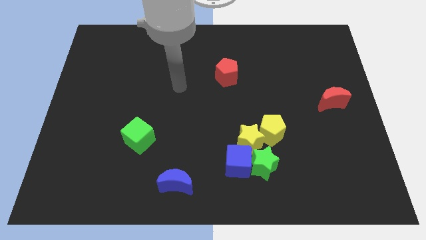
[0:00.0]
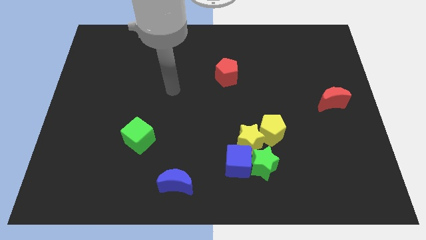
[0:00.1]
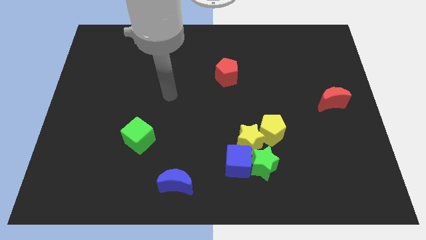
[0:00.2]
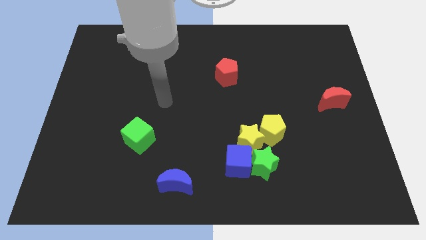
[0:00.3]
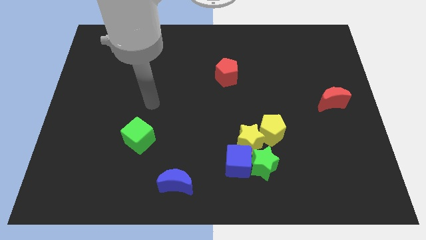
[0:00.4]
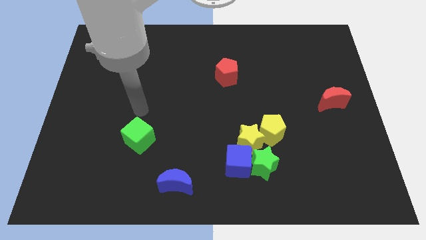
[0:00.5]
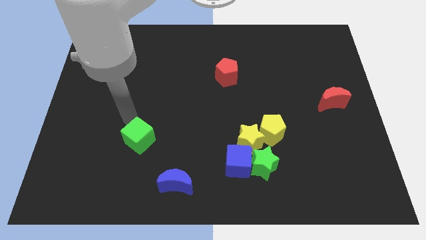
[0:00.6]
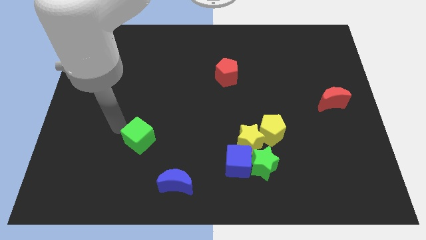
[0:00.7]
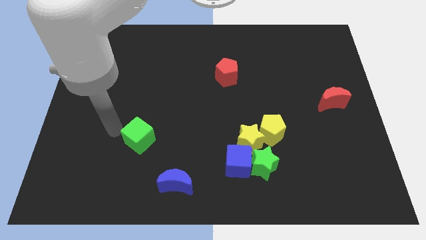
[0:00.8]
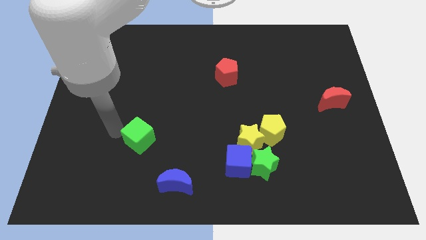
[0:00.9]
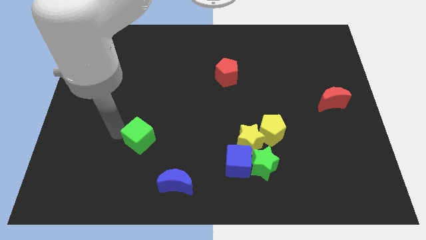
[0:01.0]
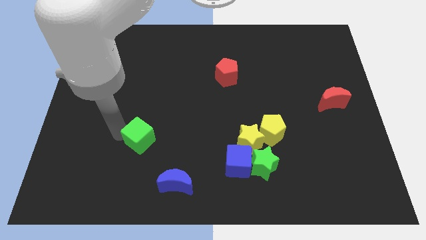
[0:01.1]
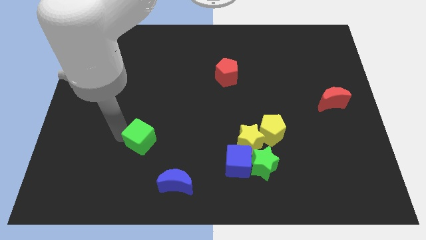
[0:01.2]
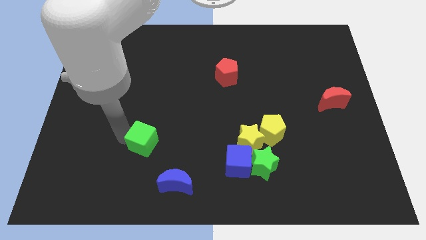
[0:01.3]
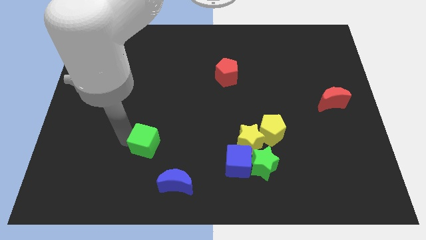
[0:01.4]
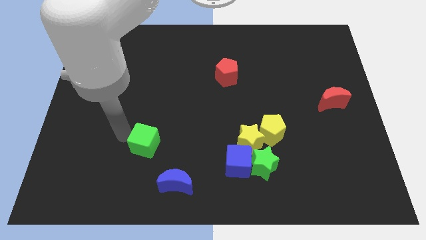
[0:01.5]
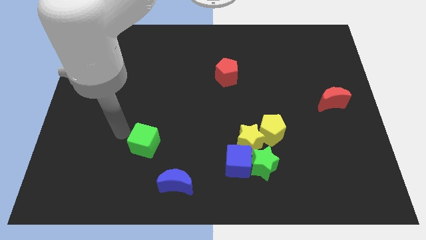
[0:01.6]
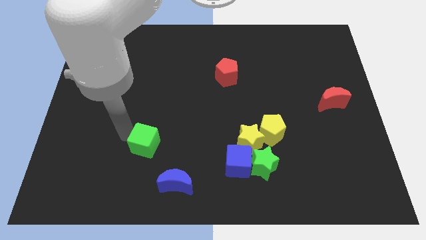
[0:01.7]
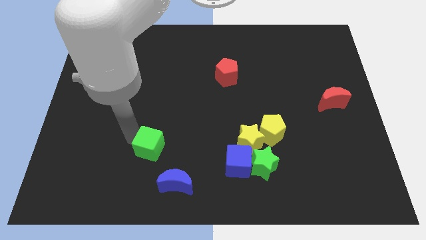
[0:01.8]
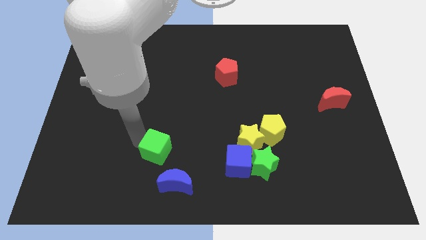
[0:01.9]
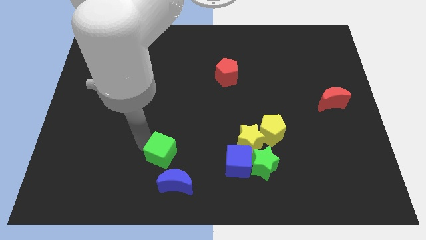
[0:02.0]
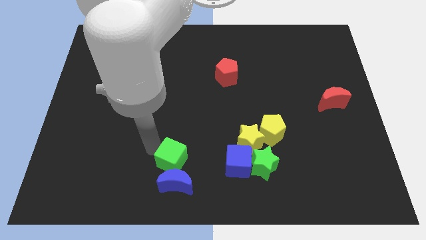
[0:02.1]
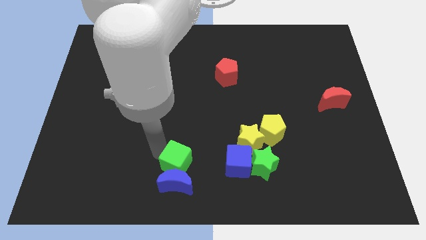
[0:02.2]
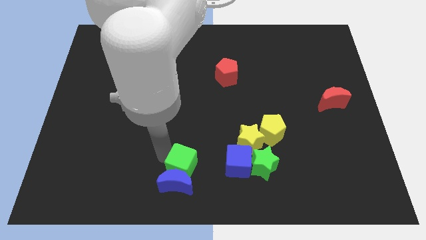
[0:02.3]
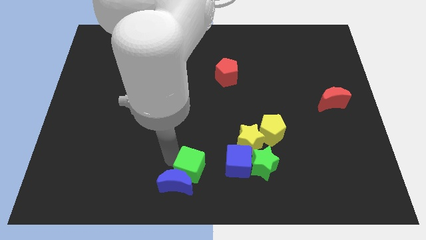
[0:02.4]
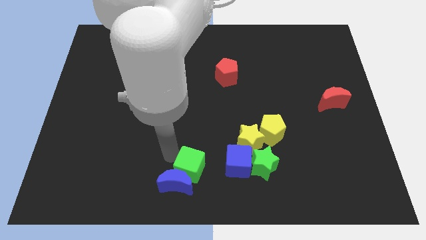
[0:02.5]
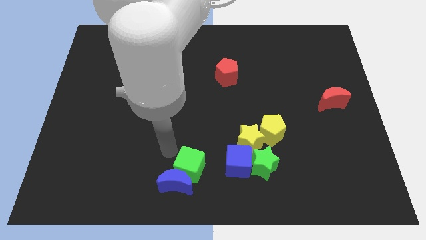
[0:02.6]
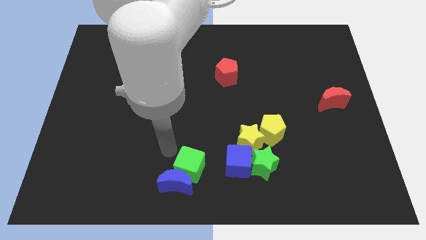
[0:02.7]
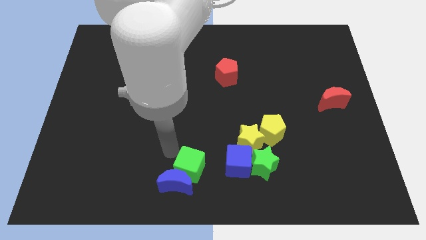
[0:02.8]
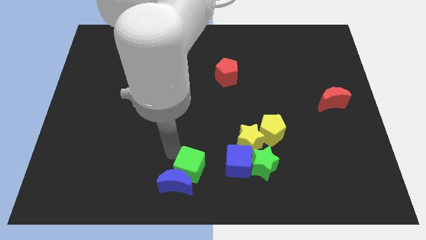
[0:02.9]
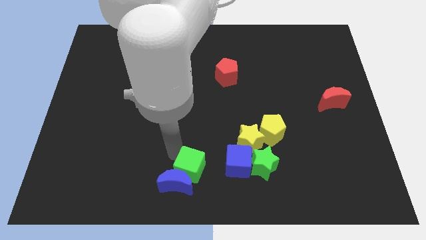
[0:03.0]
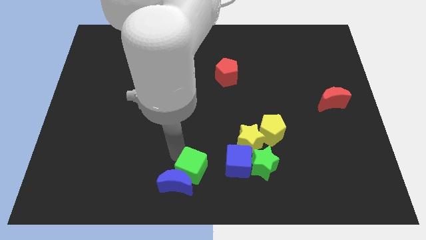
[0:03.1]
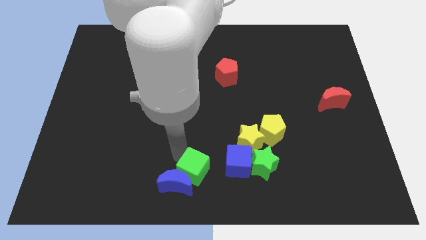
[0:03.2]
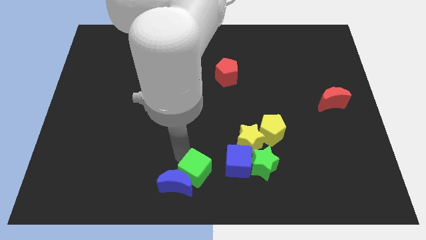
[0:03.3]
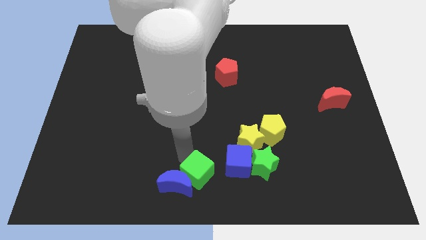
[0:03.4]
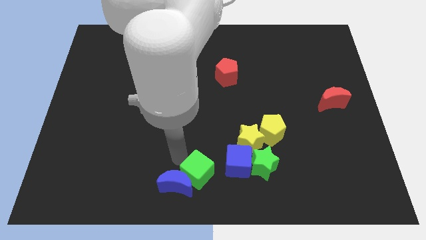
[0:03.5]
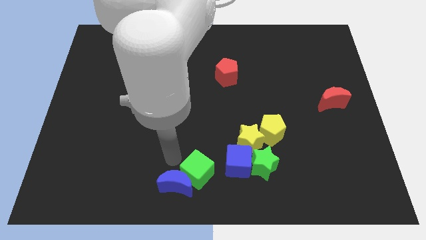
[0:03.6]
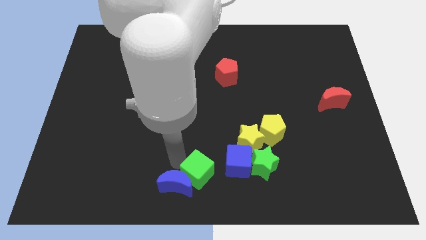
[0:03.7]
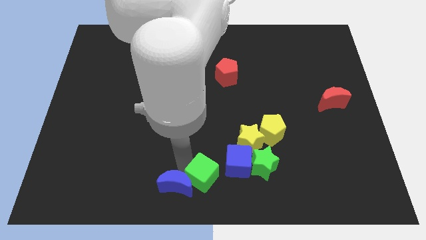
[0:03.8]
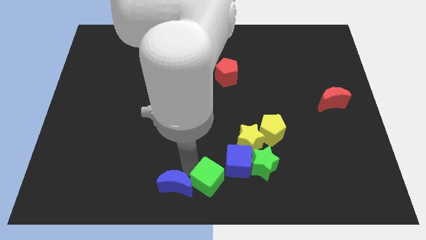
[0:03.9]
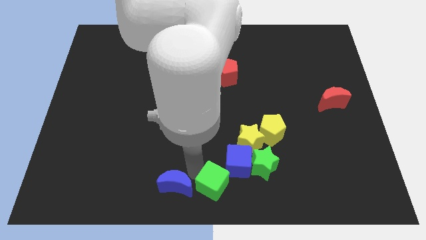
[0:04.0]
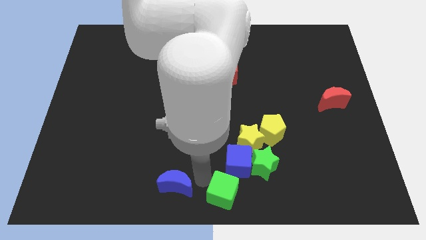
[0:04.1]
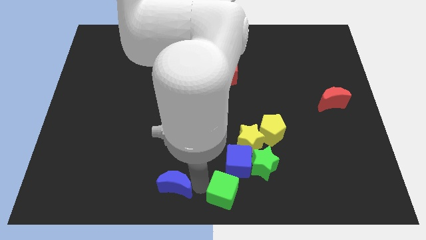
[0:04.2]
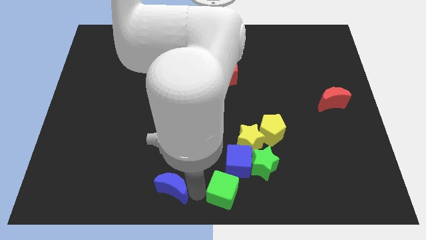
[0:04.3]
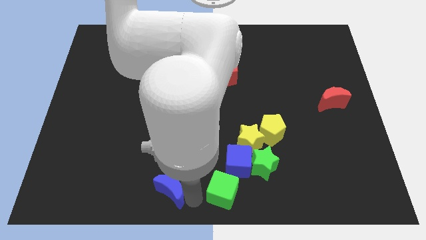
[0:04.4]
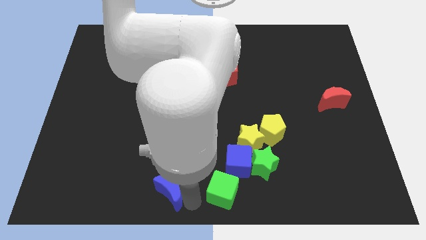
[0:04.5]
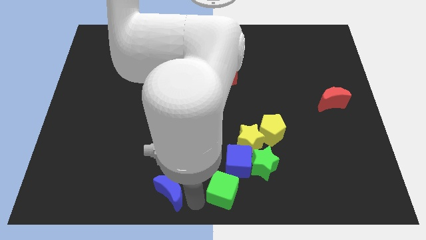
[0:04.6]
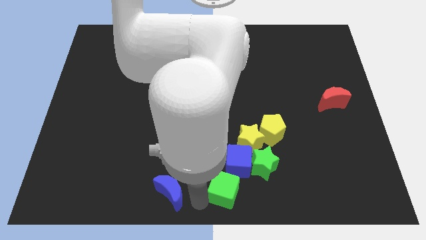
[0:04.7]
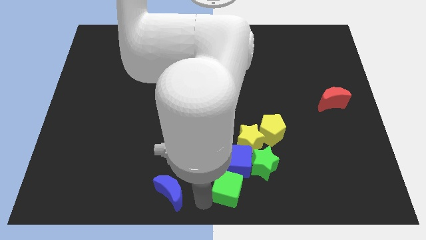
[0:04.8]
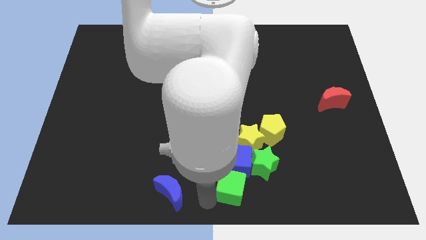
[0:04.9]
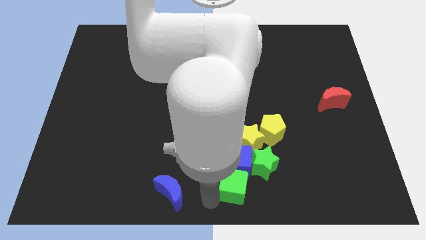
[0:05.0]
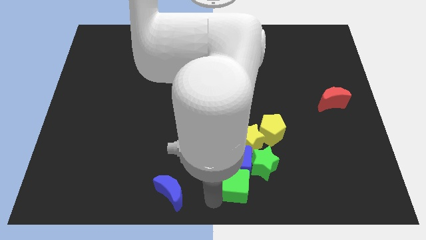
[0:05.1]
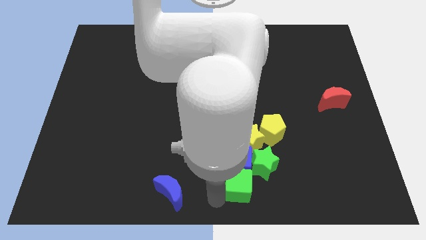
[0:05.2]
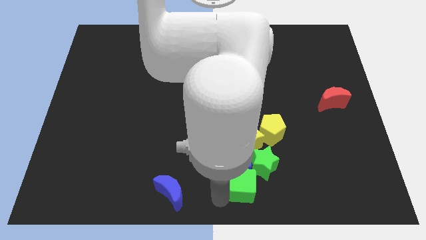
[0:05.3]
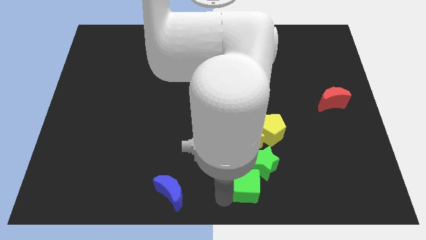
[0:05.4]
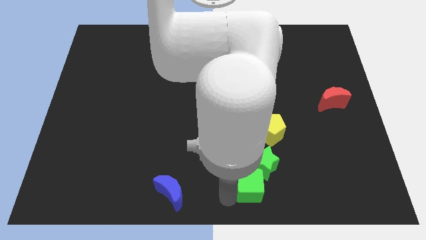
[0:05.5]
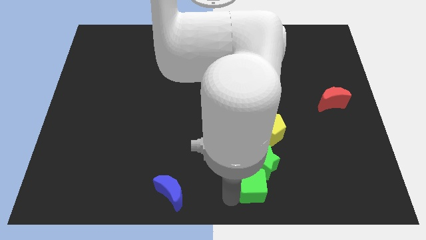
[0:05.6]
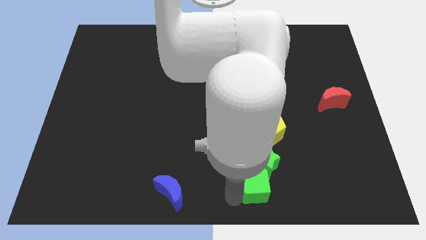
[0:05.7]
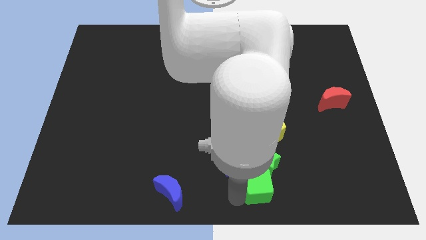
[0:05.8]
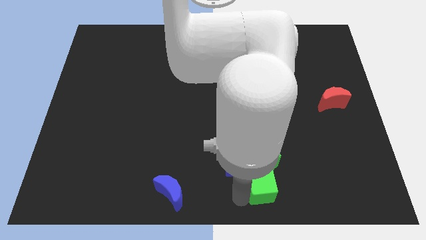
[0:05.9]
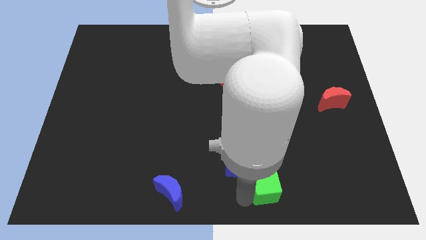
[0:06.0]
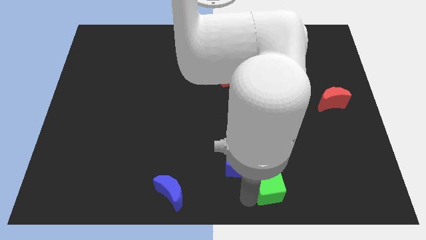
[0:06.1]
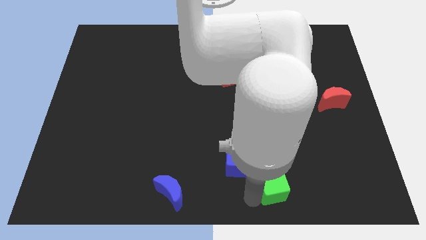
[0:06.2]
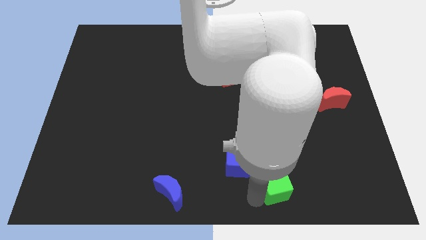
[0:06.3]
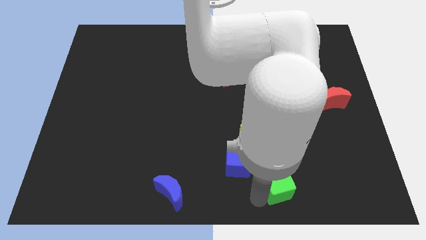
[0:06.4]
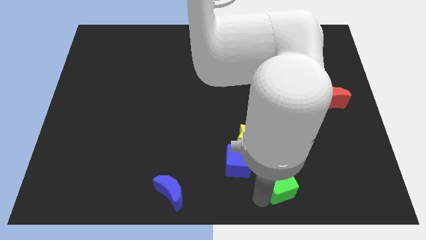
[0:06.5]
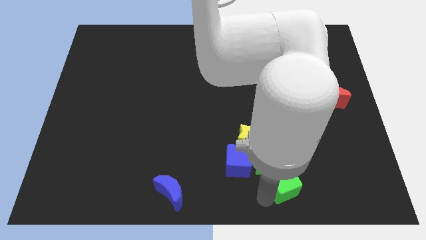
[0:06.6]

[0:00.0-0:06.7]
slide the green cube diagonally down and to the right of the yellow star

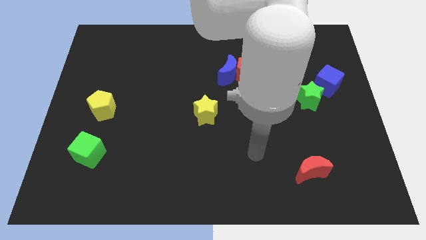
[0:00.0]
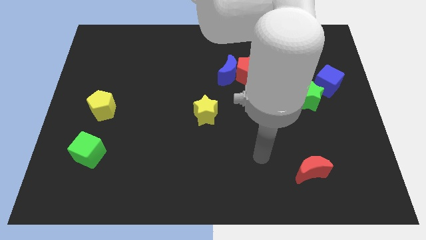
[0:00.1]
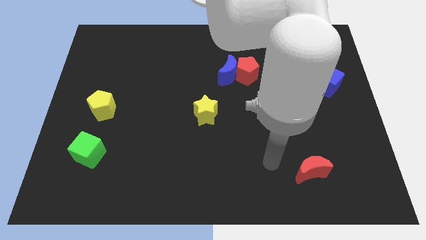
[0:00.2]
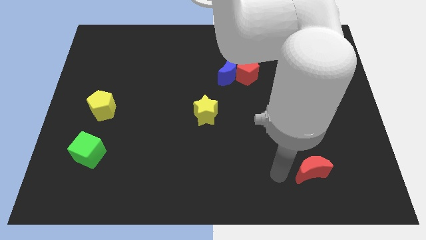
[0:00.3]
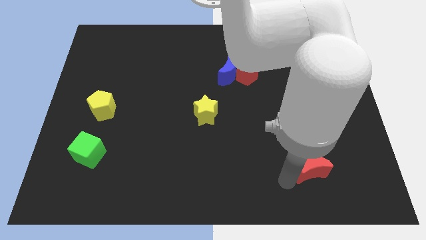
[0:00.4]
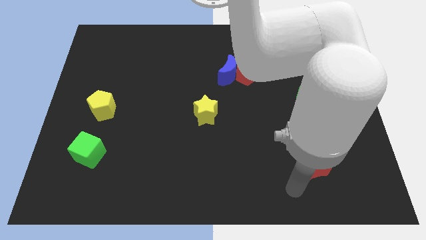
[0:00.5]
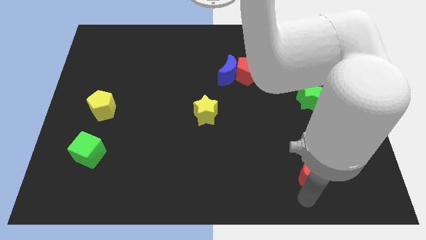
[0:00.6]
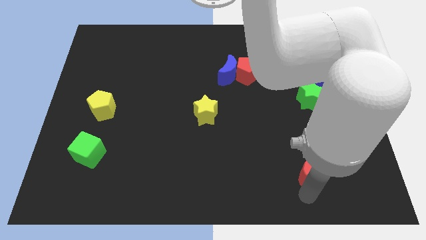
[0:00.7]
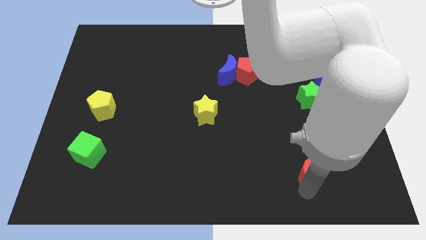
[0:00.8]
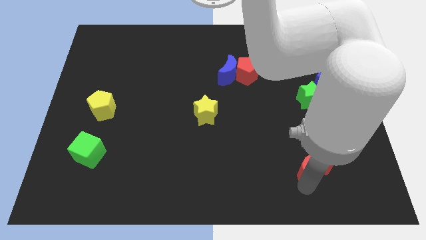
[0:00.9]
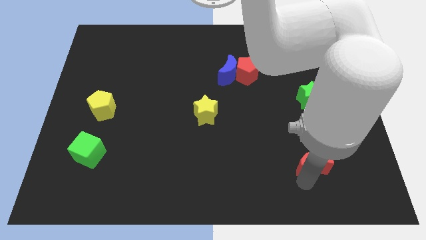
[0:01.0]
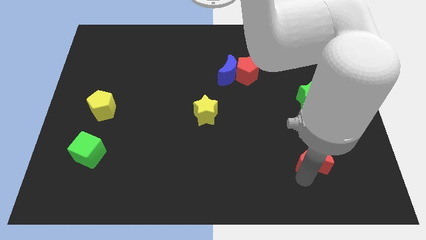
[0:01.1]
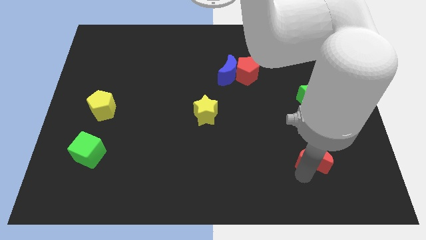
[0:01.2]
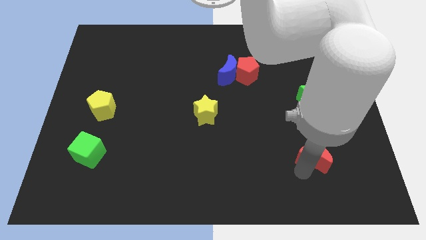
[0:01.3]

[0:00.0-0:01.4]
push the red moon to the bottom side of the green star
